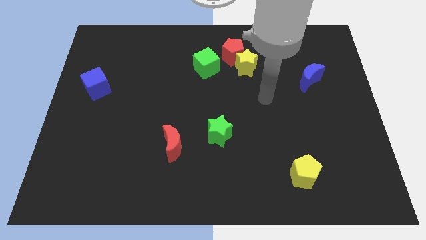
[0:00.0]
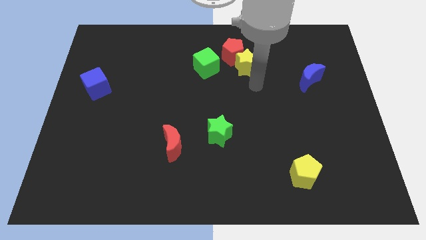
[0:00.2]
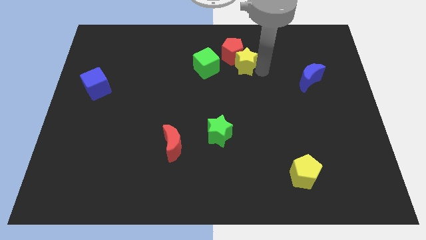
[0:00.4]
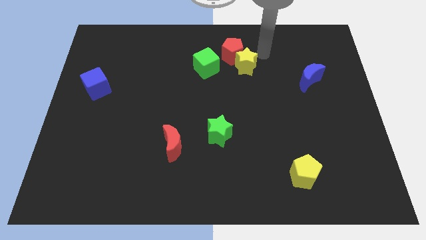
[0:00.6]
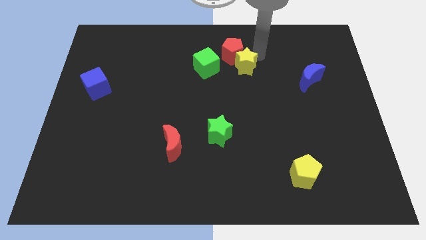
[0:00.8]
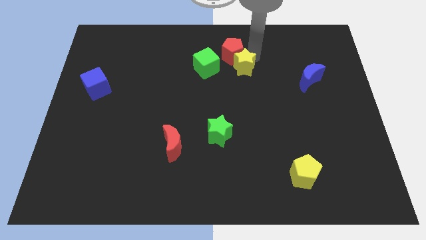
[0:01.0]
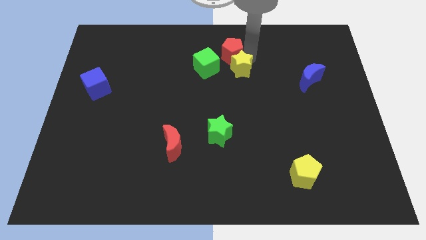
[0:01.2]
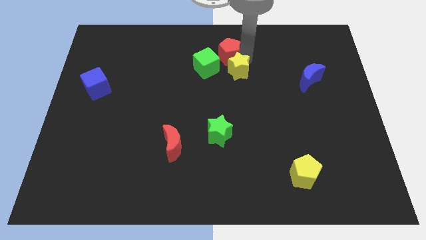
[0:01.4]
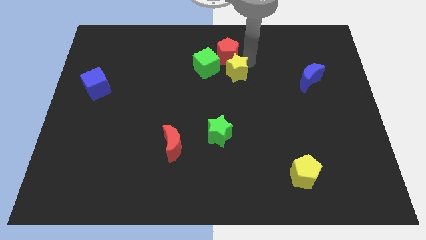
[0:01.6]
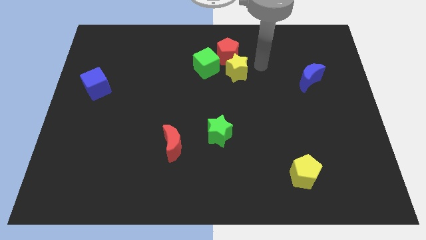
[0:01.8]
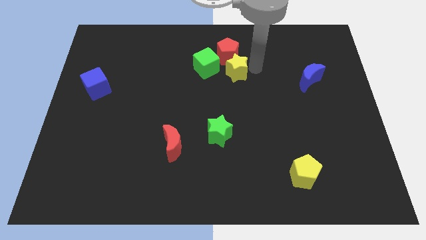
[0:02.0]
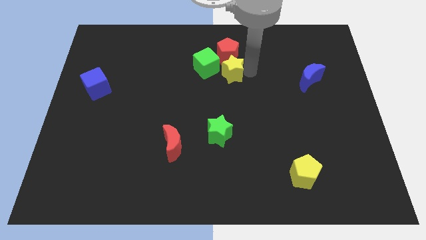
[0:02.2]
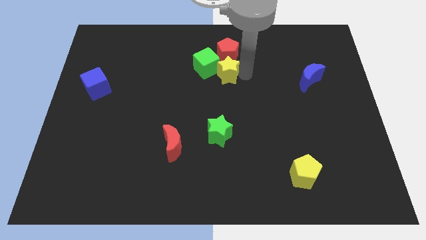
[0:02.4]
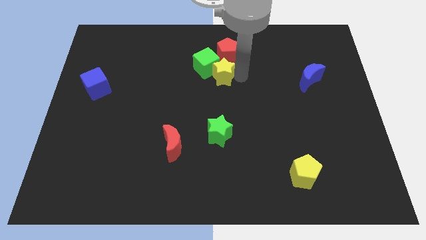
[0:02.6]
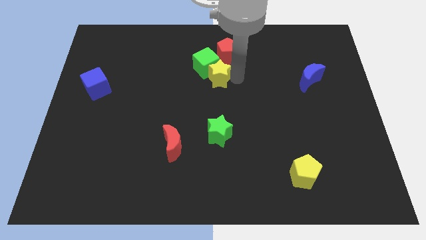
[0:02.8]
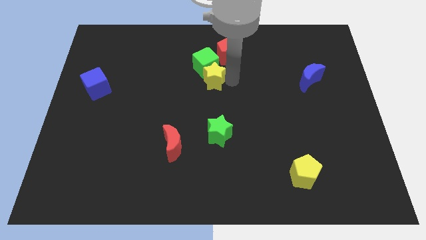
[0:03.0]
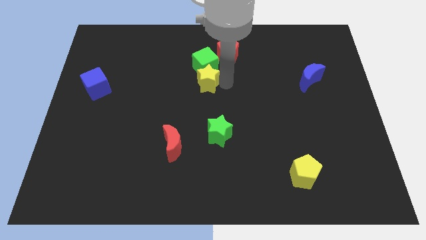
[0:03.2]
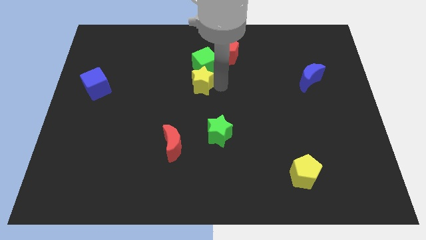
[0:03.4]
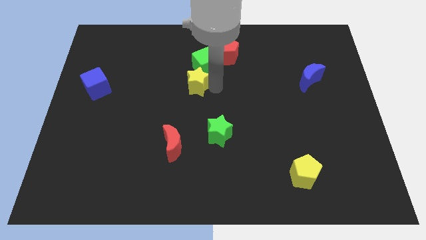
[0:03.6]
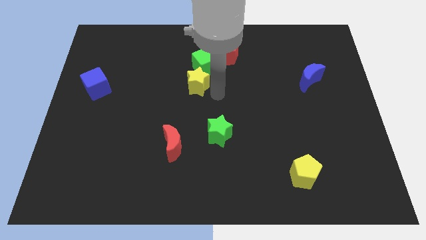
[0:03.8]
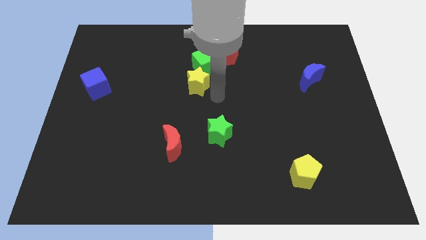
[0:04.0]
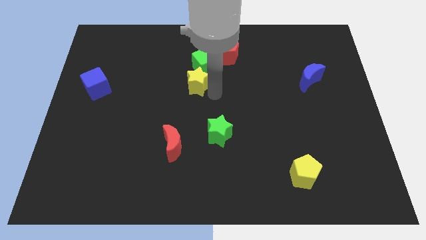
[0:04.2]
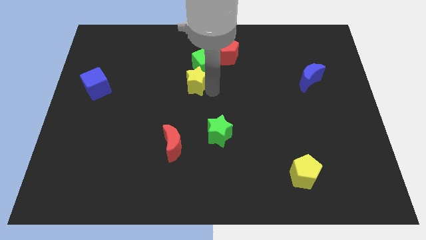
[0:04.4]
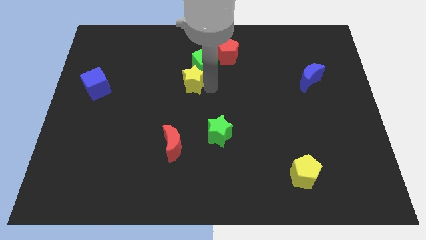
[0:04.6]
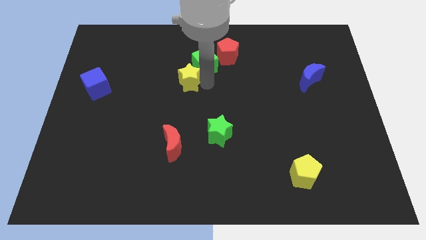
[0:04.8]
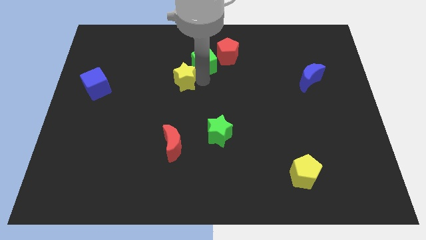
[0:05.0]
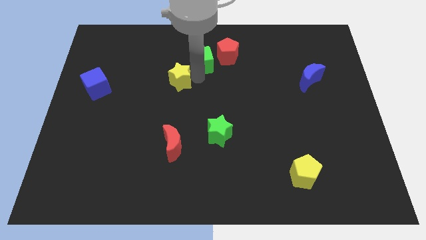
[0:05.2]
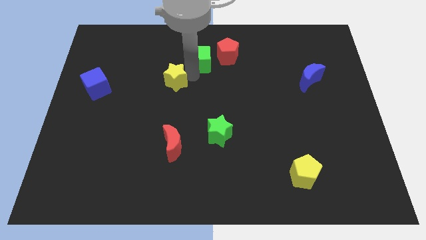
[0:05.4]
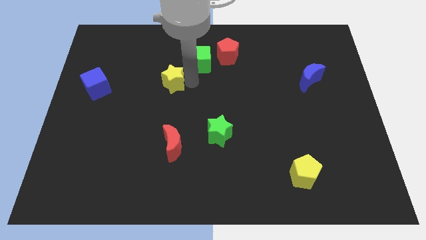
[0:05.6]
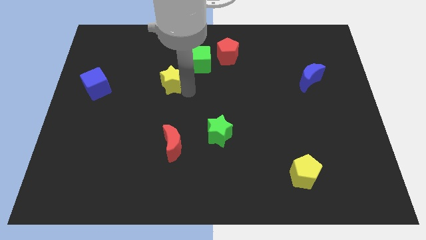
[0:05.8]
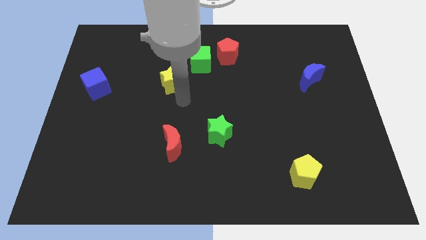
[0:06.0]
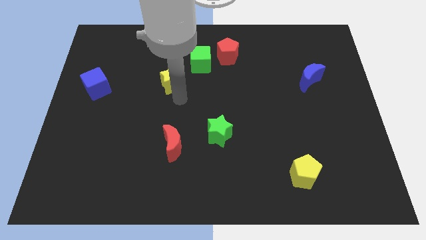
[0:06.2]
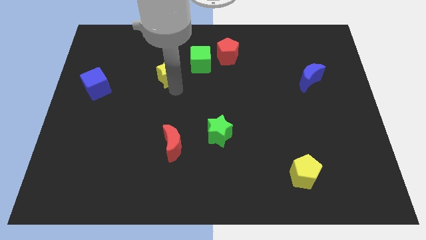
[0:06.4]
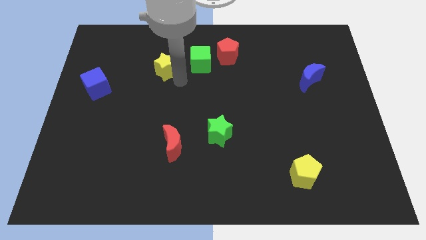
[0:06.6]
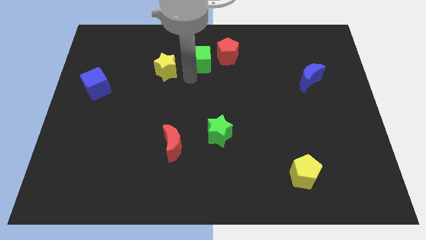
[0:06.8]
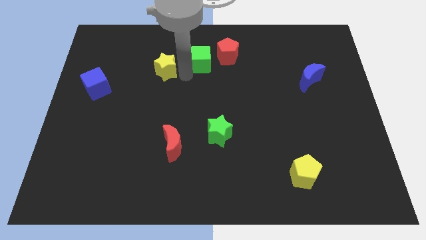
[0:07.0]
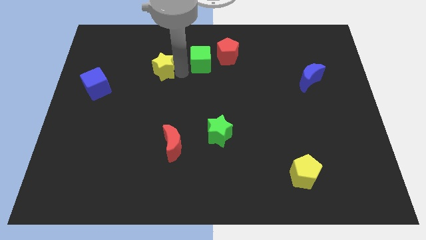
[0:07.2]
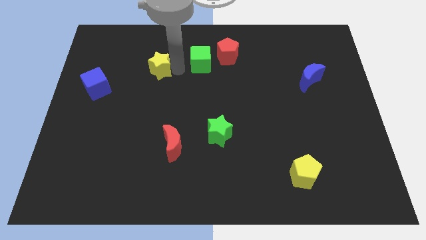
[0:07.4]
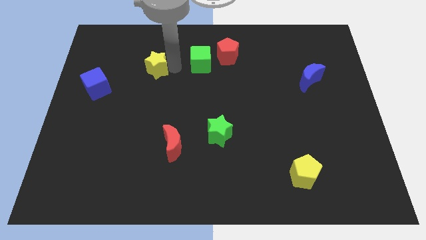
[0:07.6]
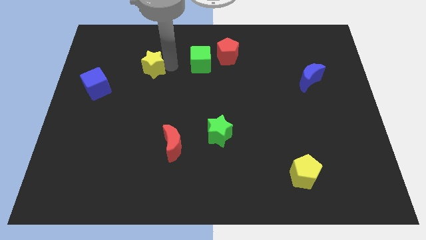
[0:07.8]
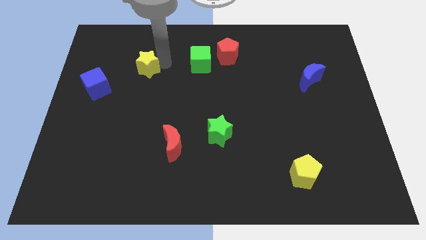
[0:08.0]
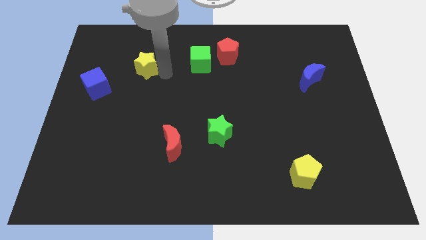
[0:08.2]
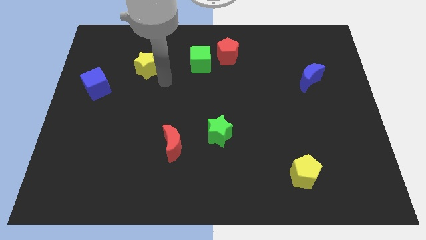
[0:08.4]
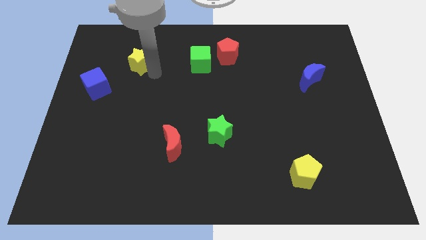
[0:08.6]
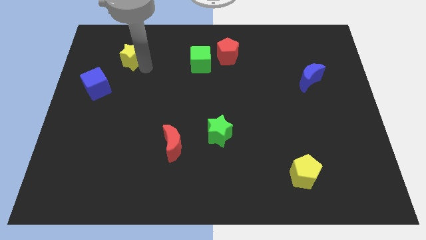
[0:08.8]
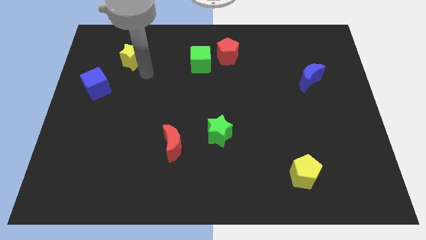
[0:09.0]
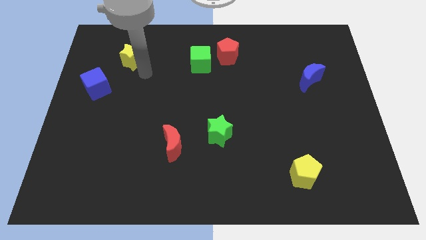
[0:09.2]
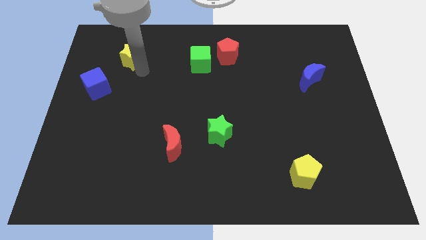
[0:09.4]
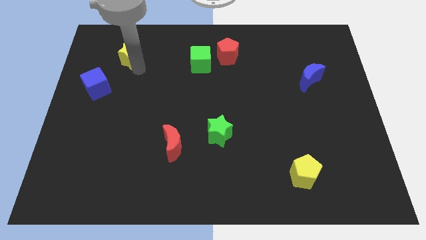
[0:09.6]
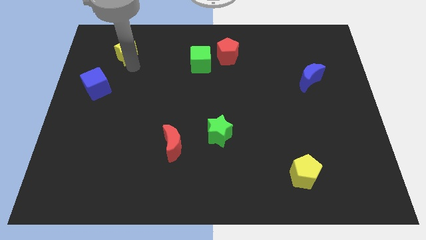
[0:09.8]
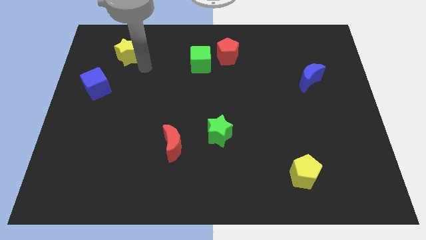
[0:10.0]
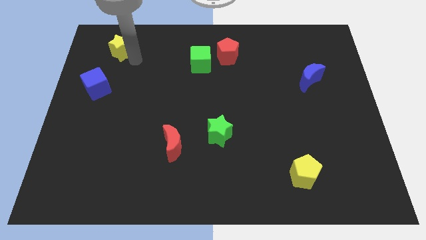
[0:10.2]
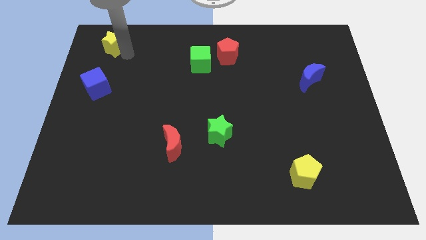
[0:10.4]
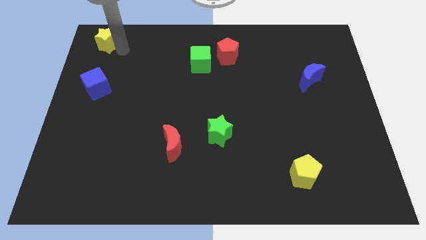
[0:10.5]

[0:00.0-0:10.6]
put the yellow star to the upper left corner

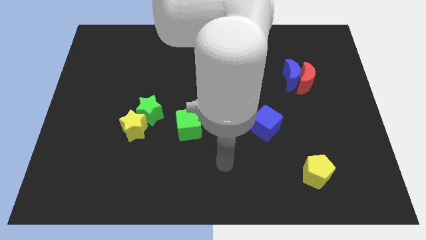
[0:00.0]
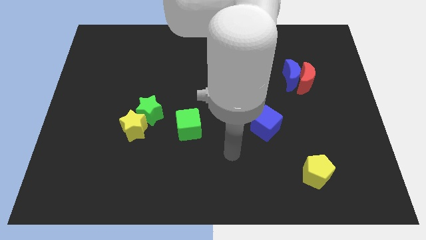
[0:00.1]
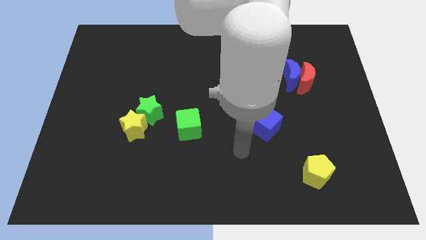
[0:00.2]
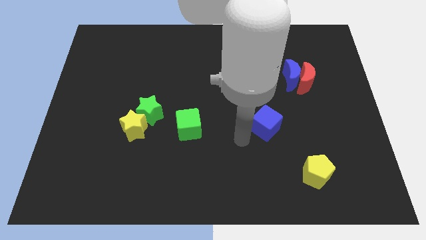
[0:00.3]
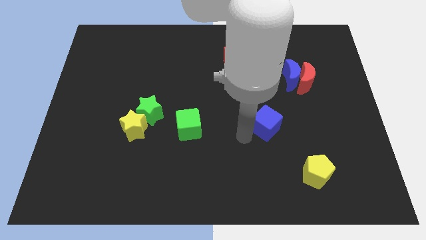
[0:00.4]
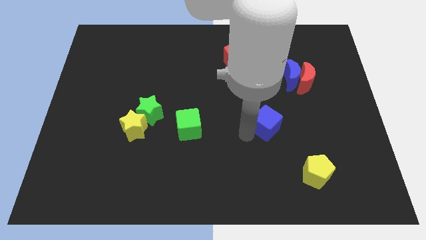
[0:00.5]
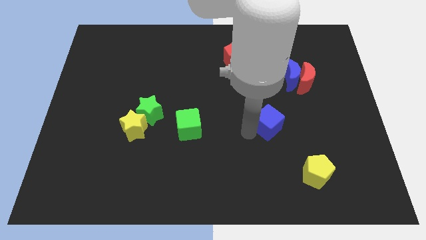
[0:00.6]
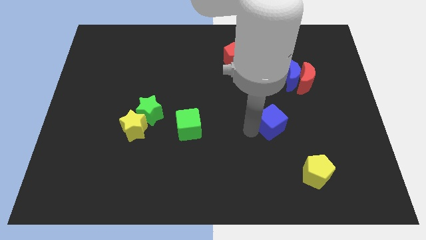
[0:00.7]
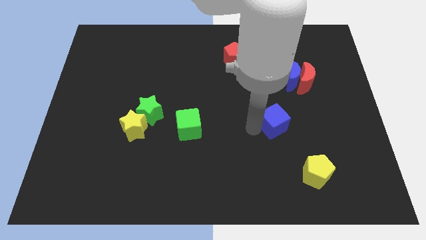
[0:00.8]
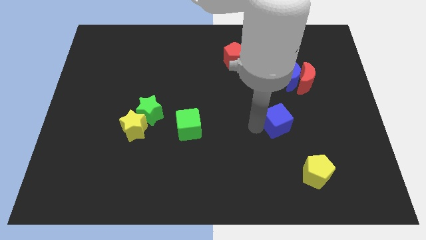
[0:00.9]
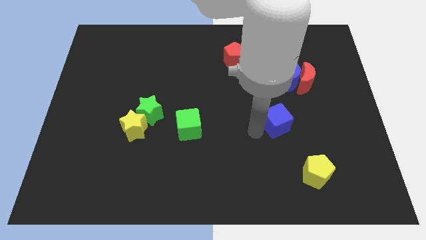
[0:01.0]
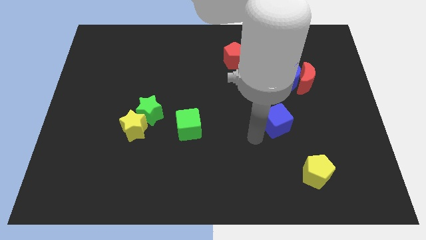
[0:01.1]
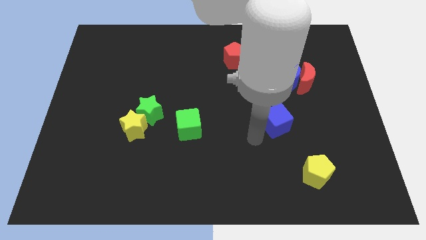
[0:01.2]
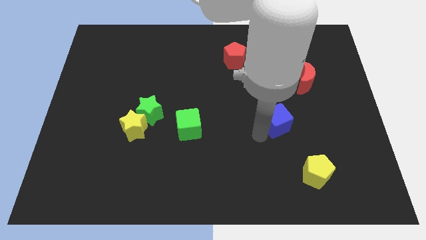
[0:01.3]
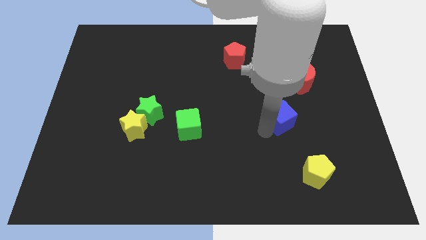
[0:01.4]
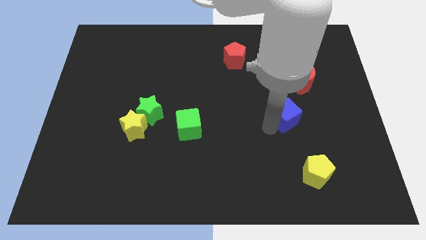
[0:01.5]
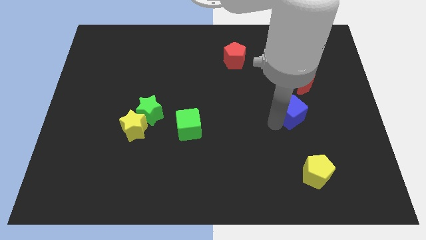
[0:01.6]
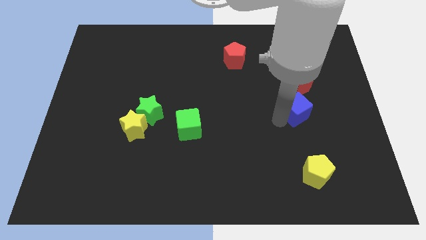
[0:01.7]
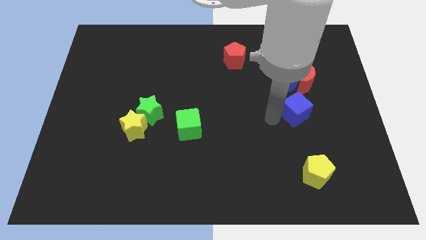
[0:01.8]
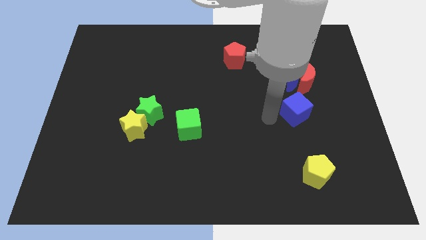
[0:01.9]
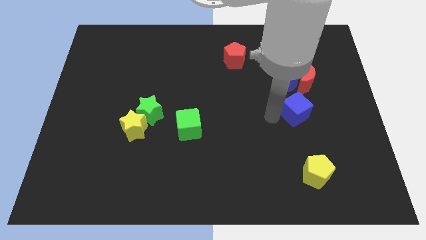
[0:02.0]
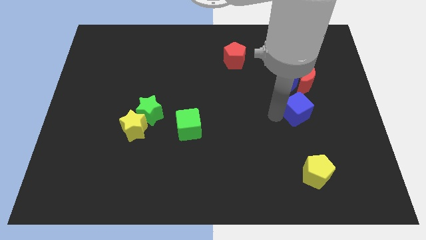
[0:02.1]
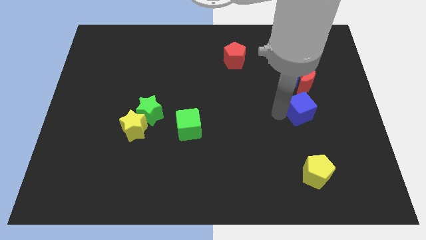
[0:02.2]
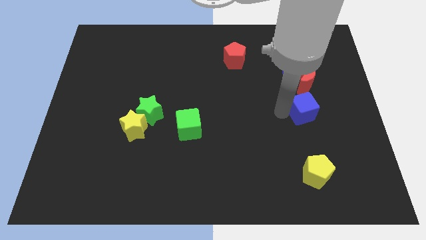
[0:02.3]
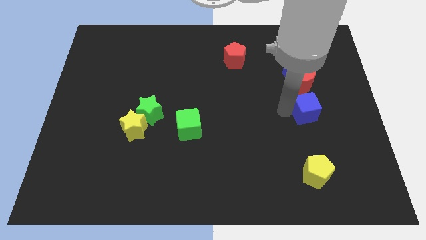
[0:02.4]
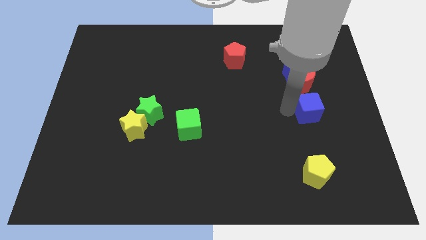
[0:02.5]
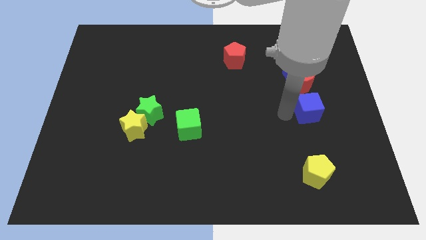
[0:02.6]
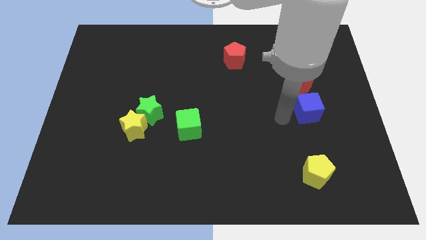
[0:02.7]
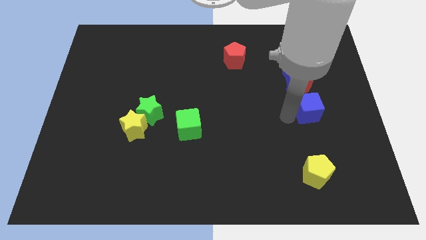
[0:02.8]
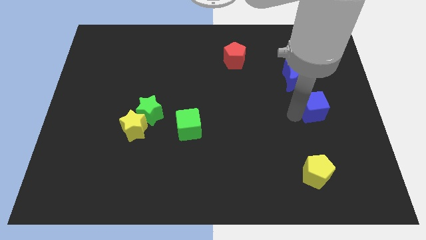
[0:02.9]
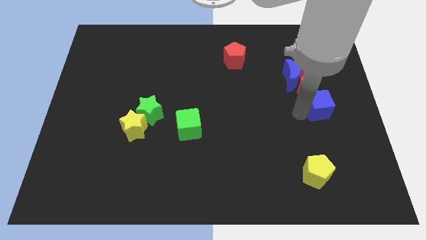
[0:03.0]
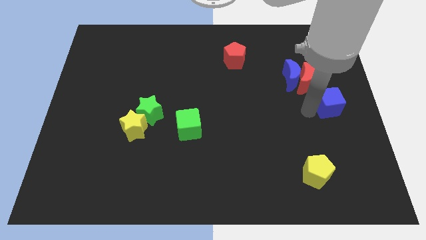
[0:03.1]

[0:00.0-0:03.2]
push the blue cube to the center right
